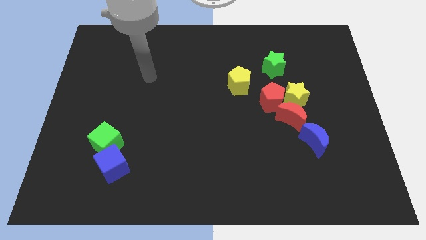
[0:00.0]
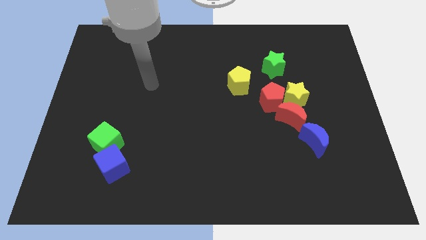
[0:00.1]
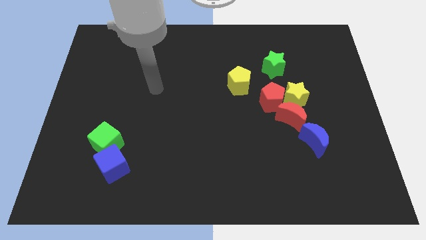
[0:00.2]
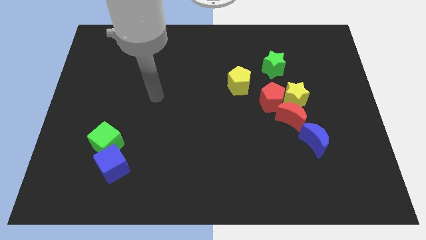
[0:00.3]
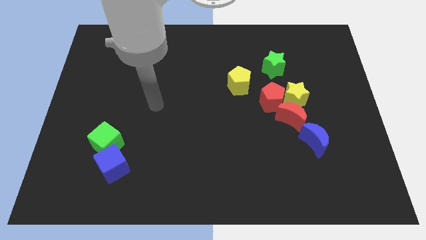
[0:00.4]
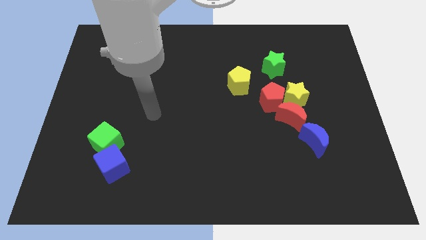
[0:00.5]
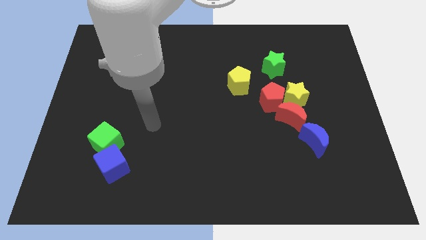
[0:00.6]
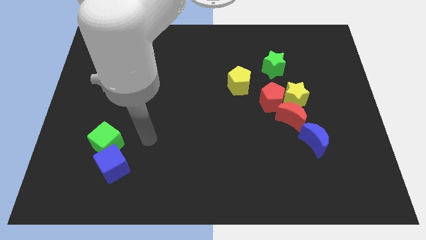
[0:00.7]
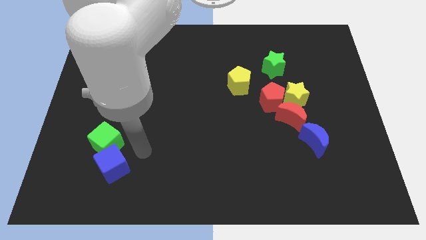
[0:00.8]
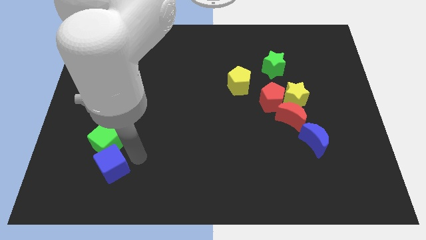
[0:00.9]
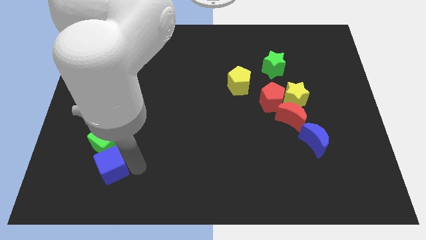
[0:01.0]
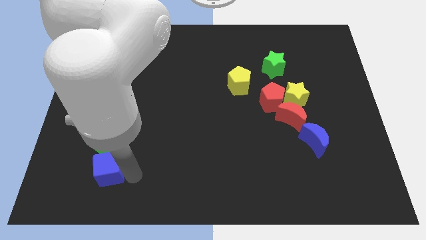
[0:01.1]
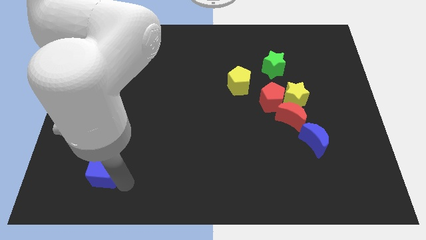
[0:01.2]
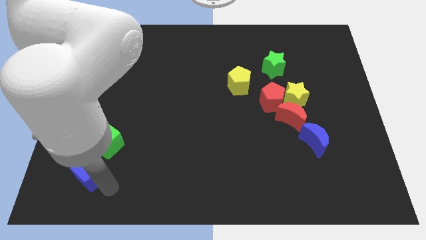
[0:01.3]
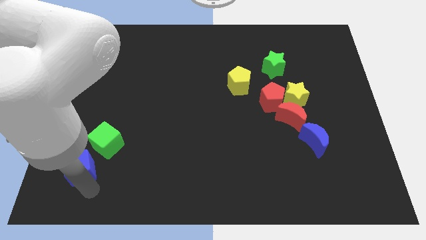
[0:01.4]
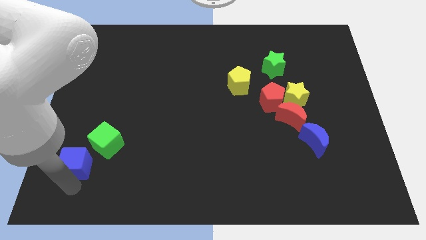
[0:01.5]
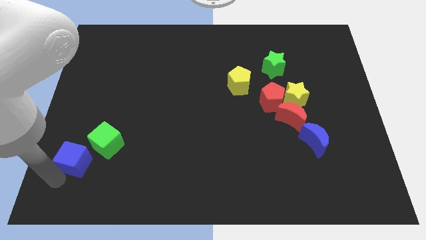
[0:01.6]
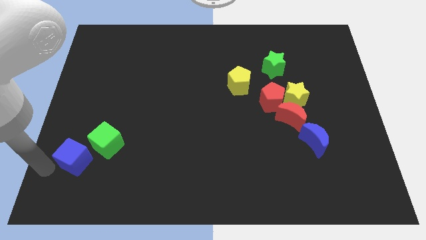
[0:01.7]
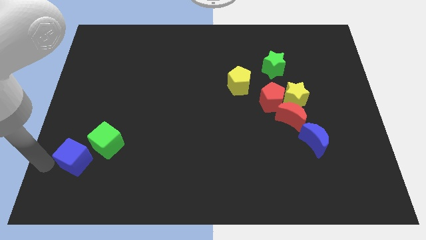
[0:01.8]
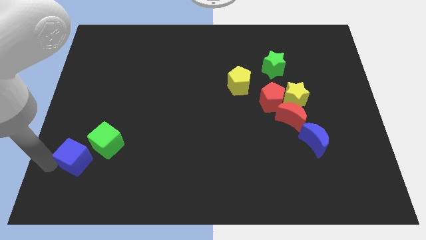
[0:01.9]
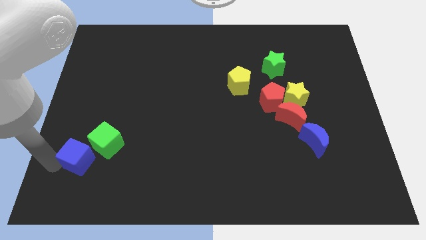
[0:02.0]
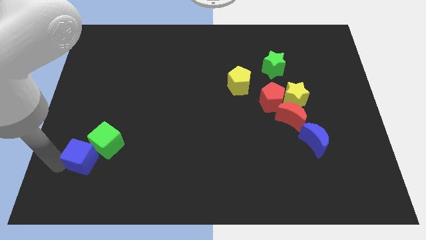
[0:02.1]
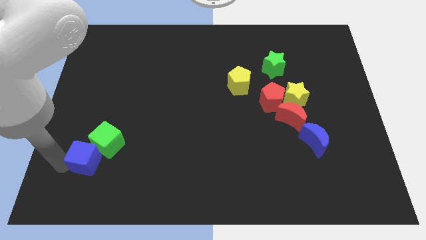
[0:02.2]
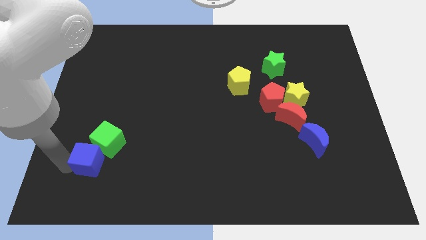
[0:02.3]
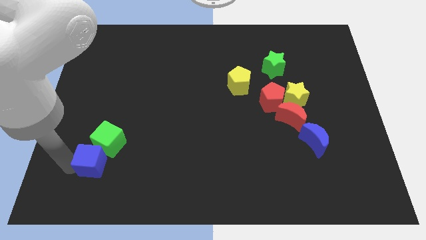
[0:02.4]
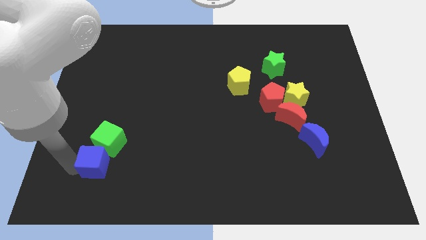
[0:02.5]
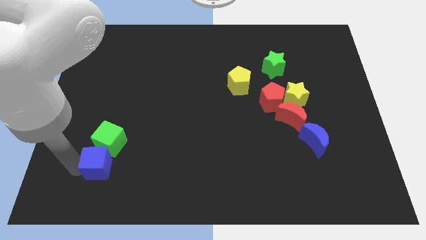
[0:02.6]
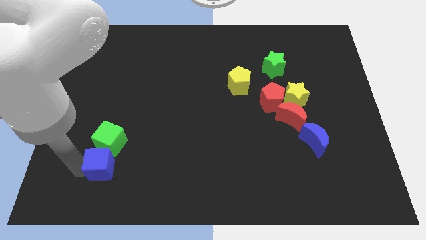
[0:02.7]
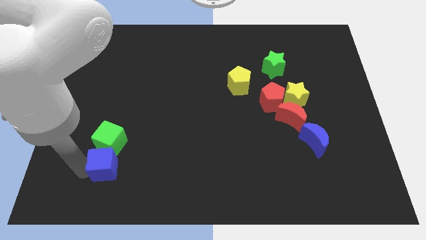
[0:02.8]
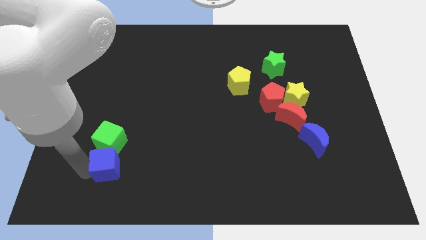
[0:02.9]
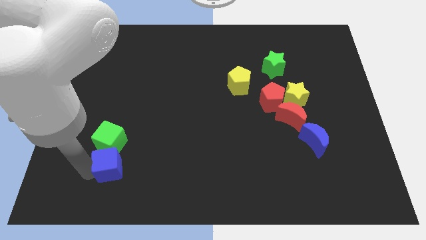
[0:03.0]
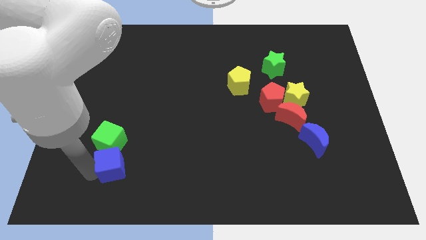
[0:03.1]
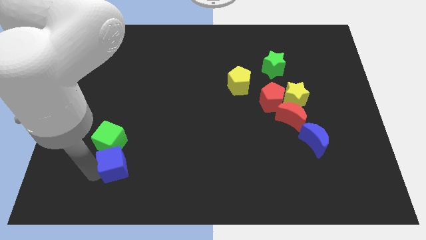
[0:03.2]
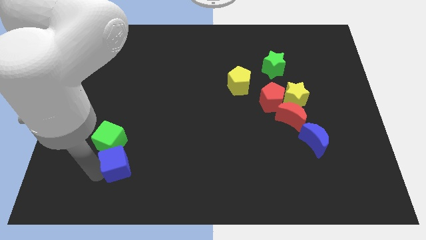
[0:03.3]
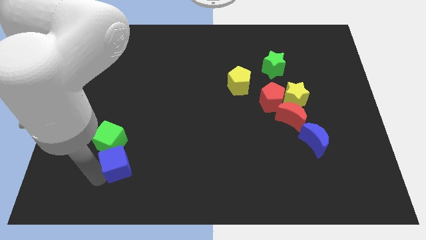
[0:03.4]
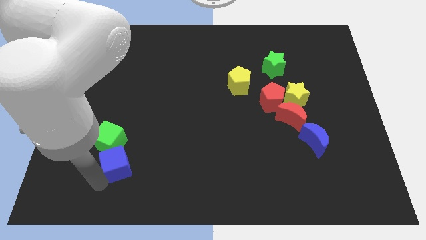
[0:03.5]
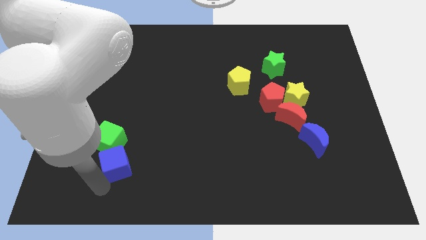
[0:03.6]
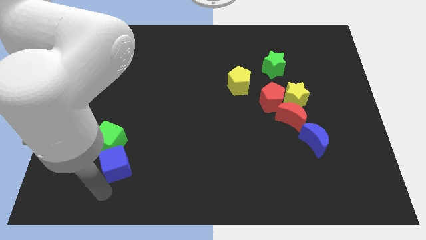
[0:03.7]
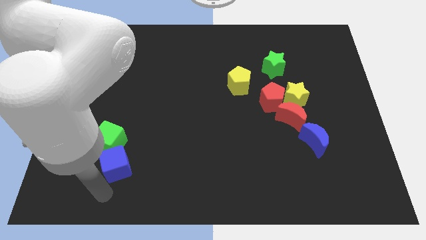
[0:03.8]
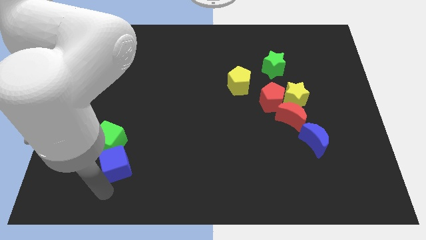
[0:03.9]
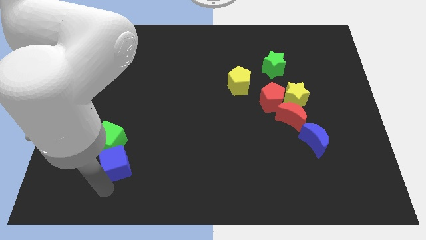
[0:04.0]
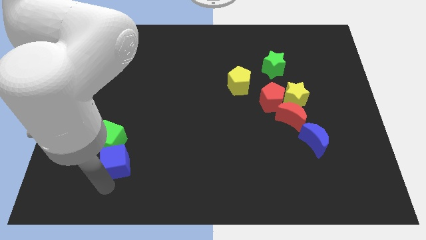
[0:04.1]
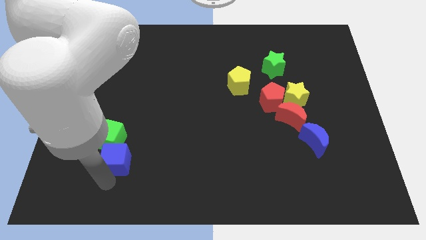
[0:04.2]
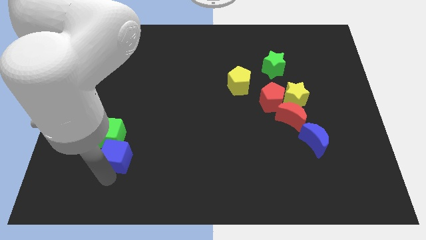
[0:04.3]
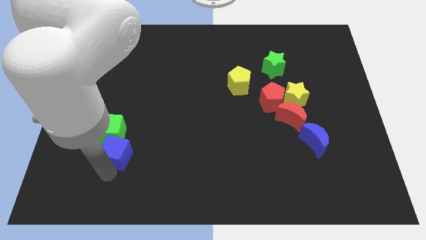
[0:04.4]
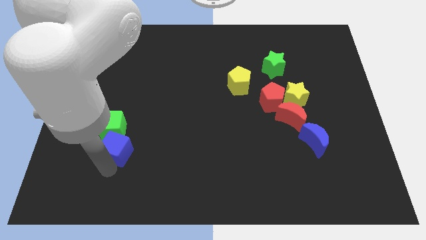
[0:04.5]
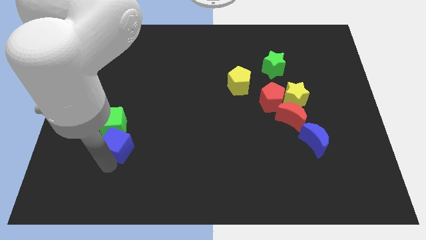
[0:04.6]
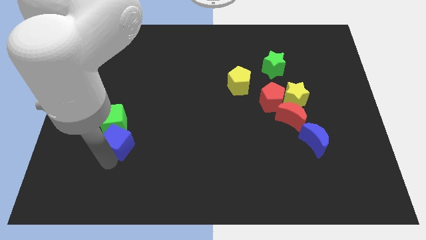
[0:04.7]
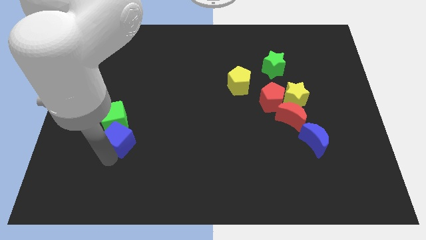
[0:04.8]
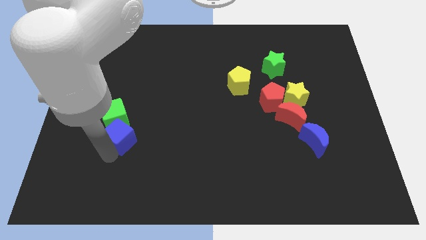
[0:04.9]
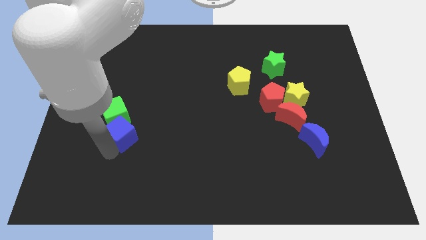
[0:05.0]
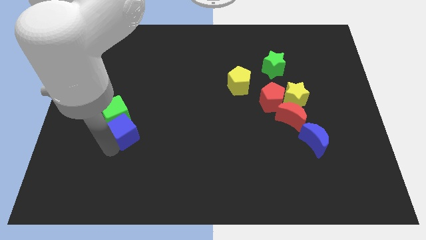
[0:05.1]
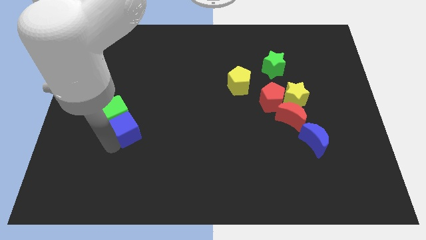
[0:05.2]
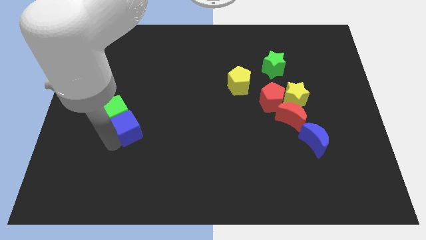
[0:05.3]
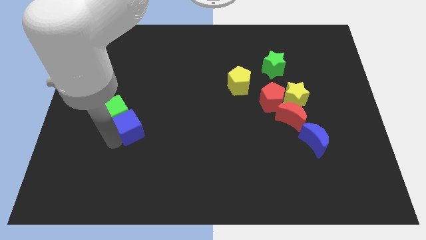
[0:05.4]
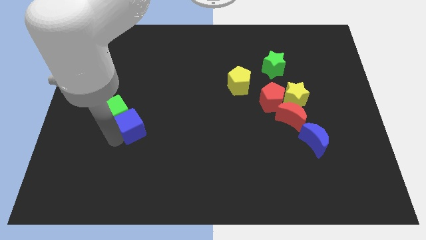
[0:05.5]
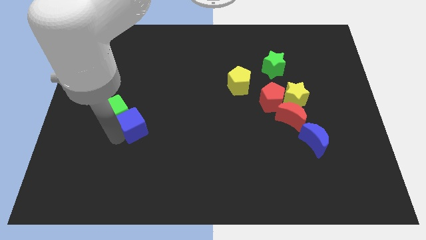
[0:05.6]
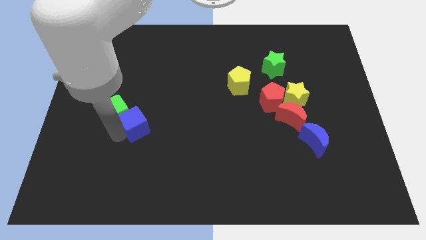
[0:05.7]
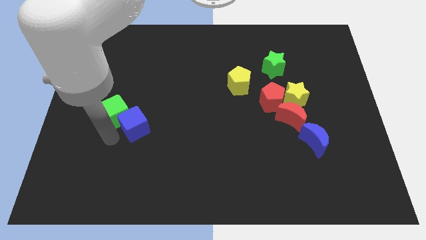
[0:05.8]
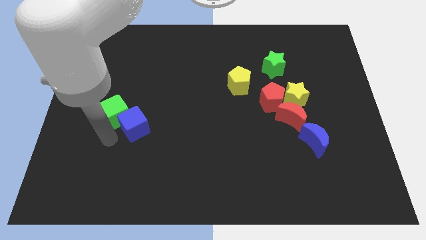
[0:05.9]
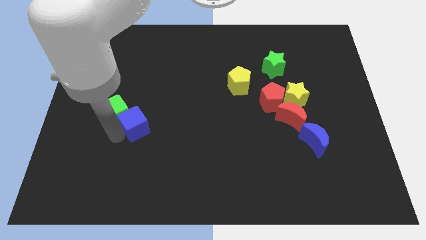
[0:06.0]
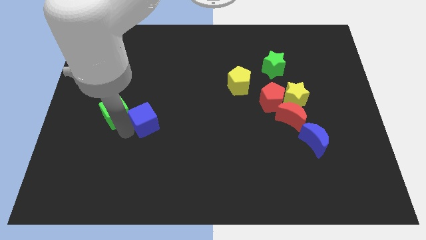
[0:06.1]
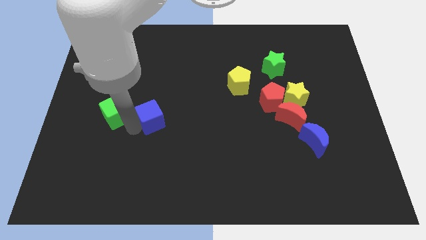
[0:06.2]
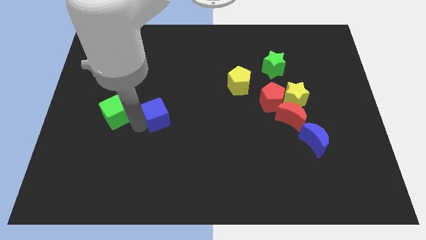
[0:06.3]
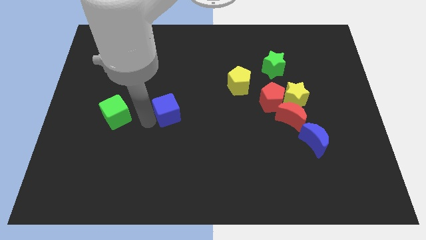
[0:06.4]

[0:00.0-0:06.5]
slide the blue cube to the center

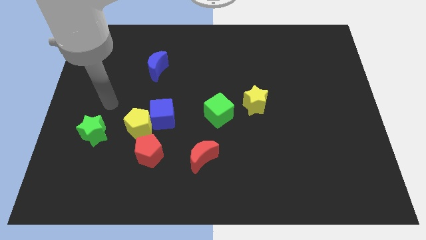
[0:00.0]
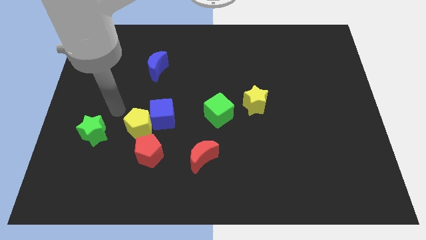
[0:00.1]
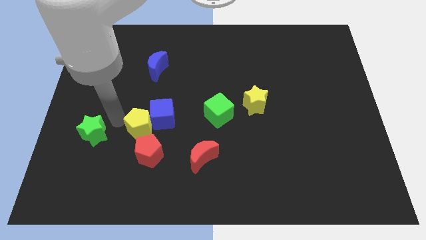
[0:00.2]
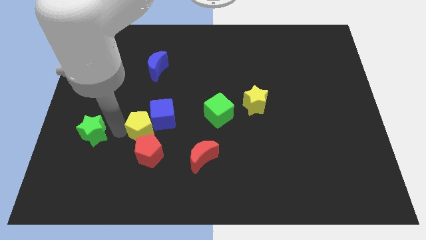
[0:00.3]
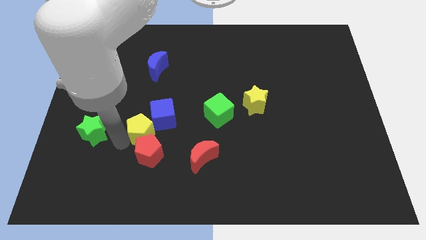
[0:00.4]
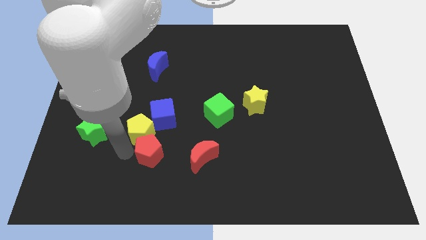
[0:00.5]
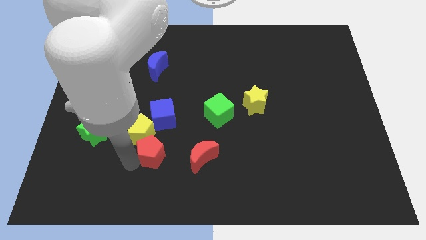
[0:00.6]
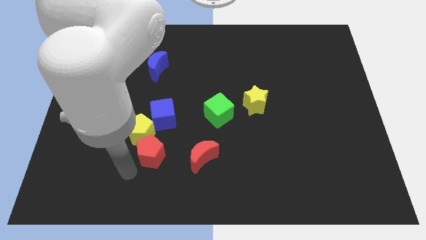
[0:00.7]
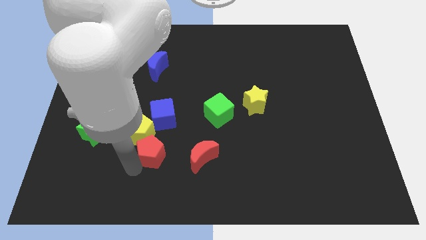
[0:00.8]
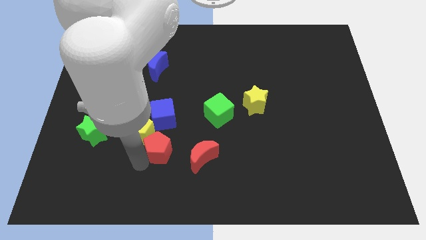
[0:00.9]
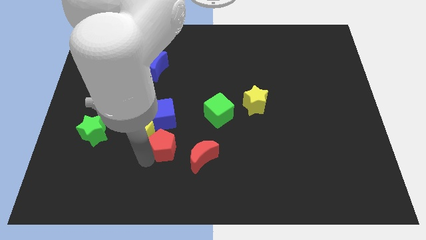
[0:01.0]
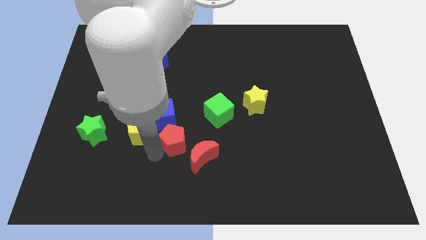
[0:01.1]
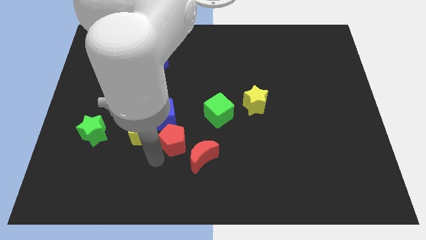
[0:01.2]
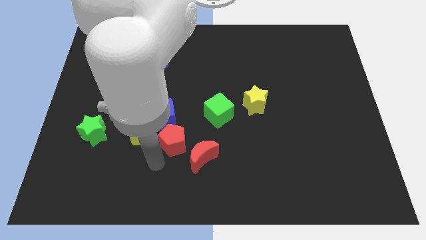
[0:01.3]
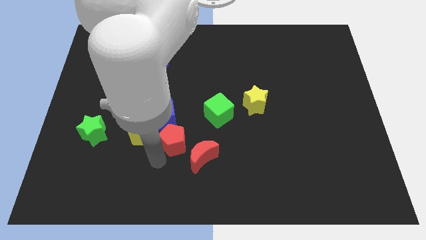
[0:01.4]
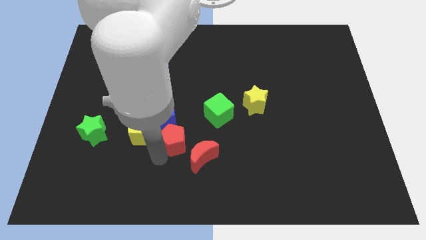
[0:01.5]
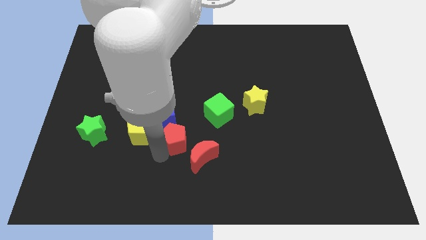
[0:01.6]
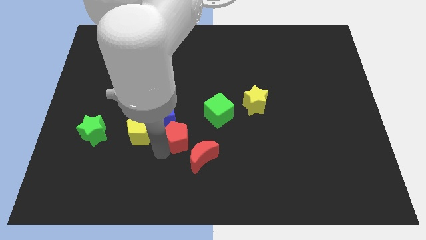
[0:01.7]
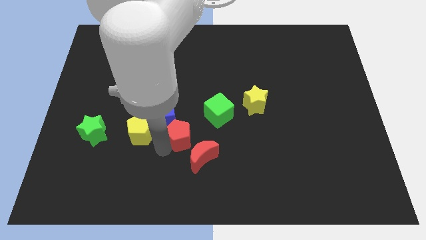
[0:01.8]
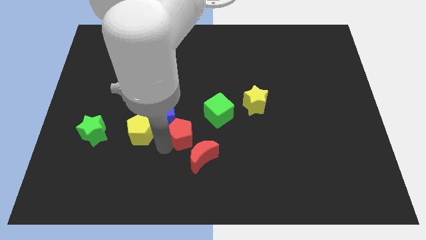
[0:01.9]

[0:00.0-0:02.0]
put the red pentagon to the center
